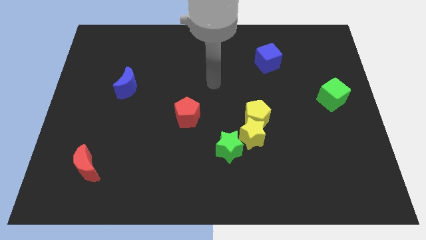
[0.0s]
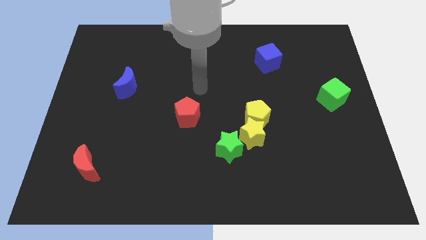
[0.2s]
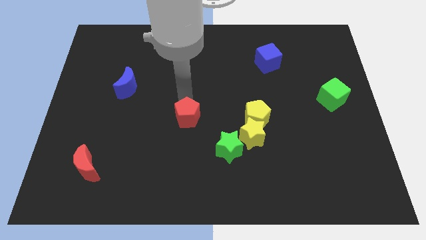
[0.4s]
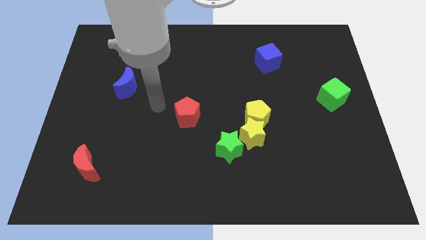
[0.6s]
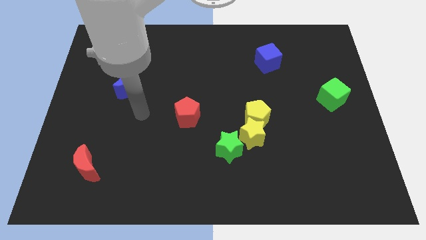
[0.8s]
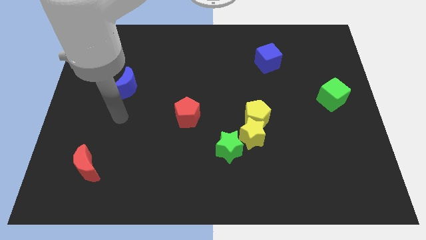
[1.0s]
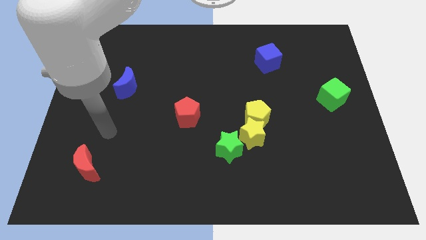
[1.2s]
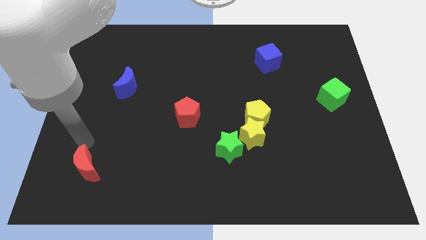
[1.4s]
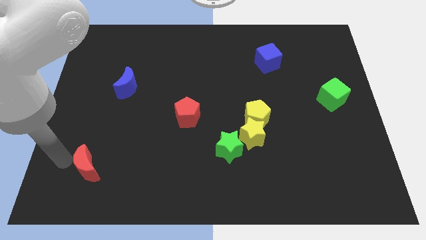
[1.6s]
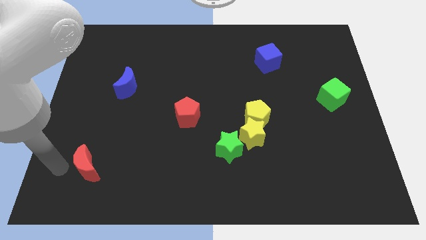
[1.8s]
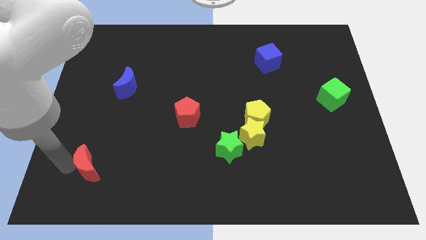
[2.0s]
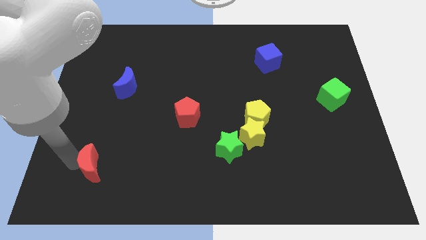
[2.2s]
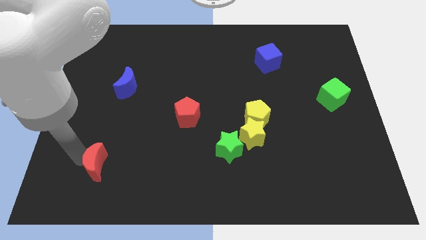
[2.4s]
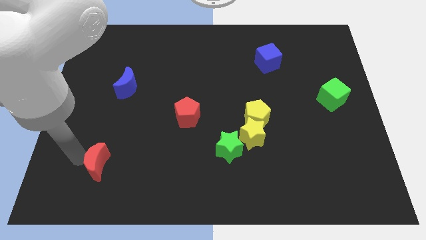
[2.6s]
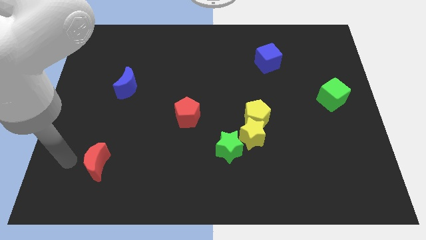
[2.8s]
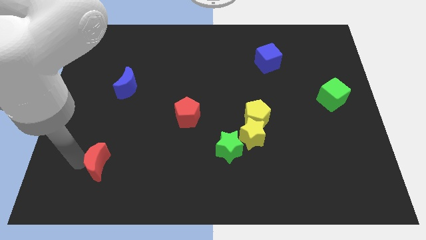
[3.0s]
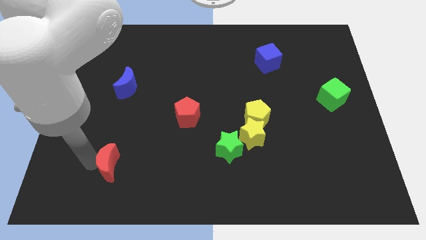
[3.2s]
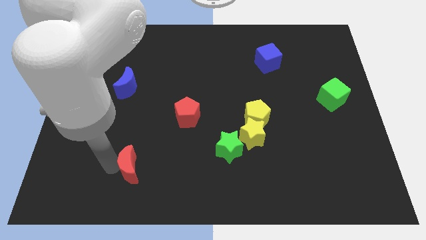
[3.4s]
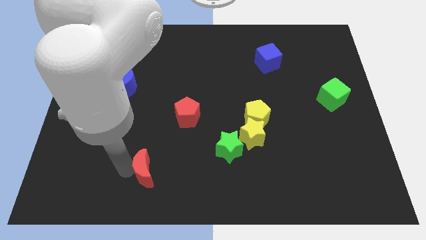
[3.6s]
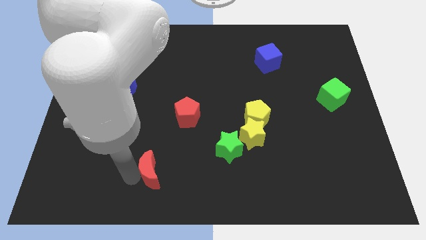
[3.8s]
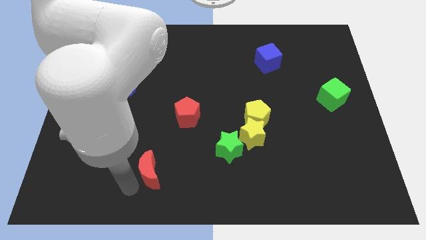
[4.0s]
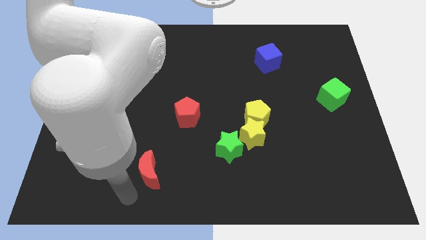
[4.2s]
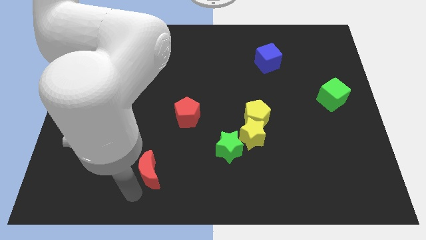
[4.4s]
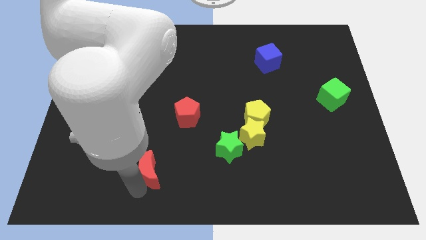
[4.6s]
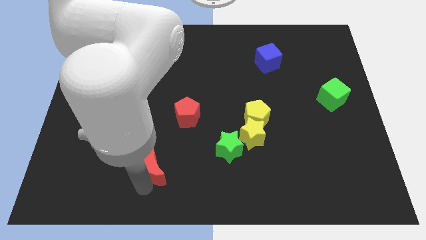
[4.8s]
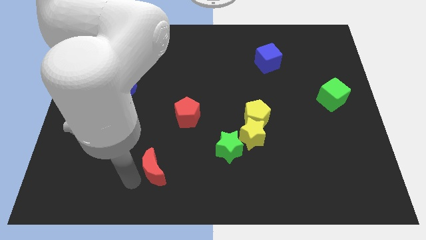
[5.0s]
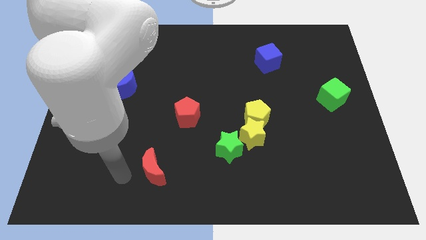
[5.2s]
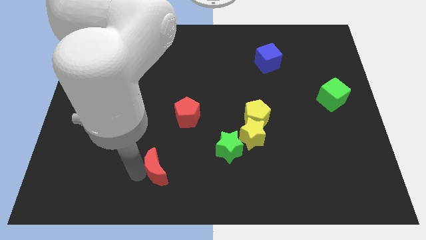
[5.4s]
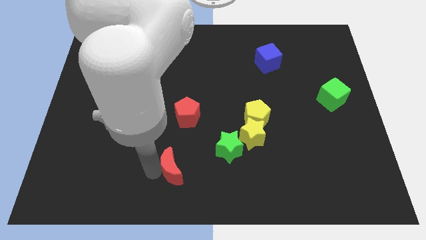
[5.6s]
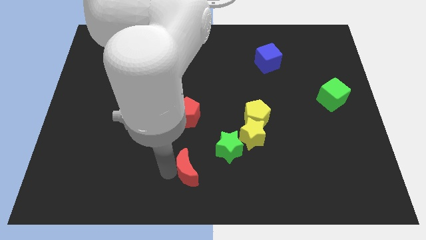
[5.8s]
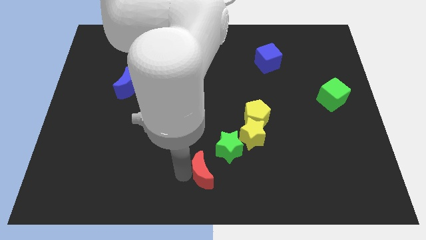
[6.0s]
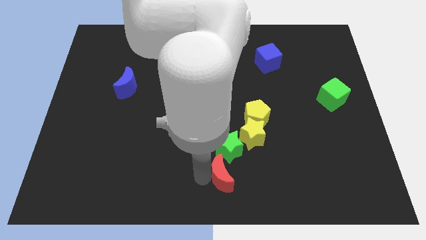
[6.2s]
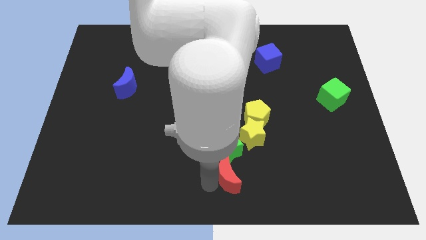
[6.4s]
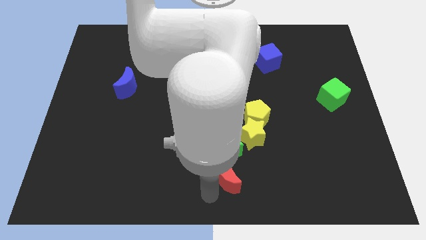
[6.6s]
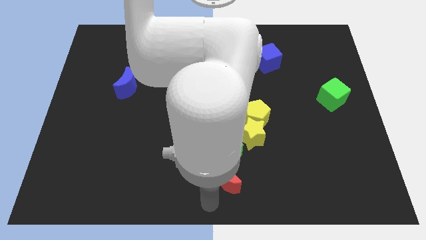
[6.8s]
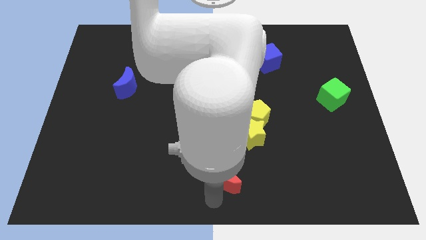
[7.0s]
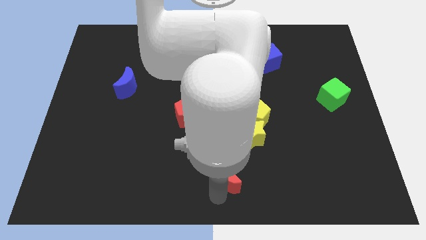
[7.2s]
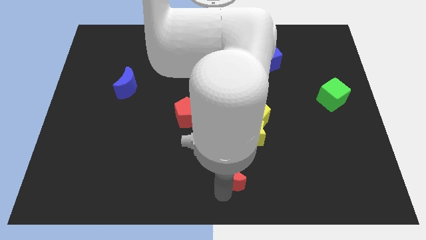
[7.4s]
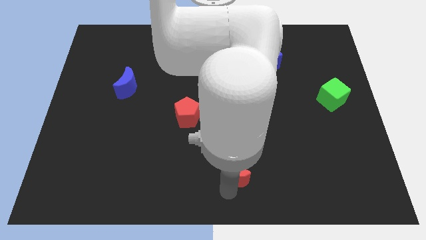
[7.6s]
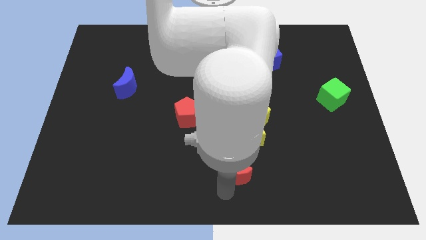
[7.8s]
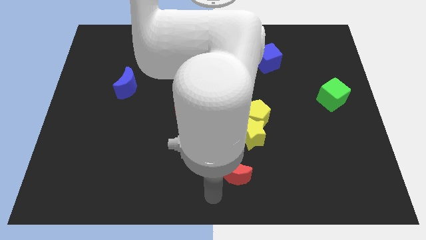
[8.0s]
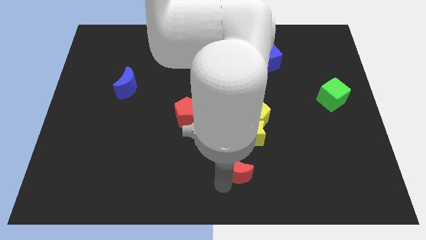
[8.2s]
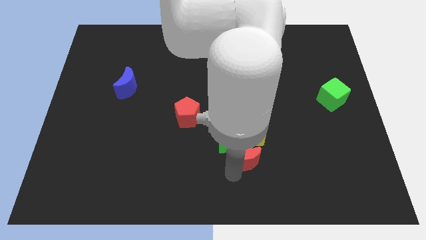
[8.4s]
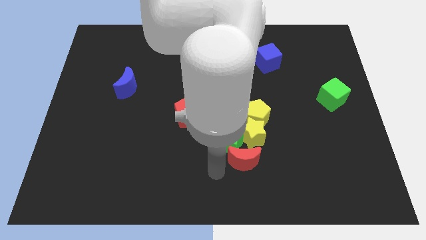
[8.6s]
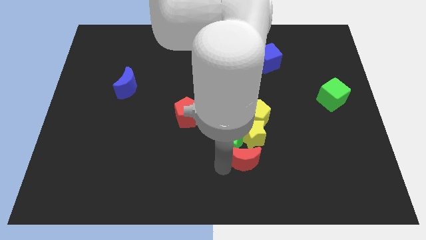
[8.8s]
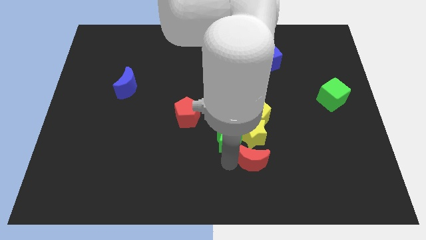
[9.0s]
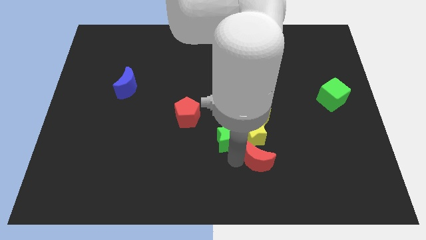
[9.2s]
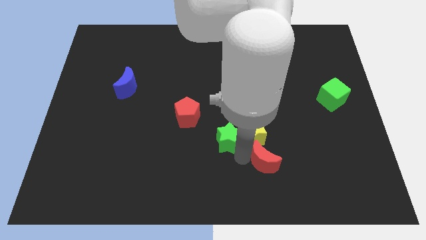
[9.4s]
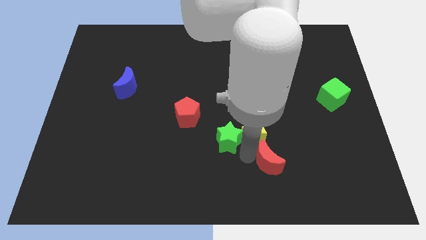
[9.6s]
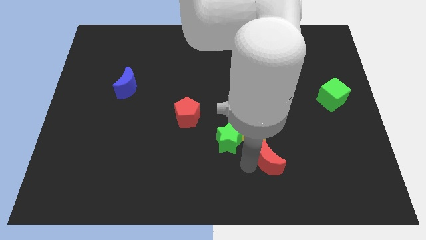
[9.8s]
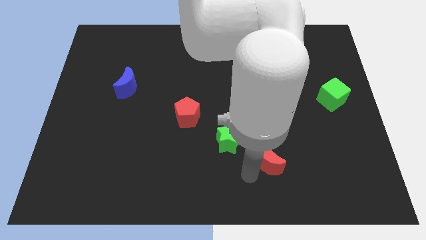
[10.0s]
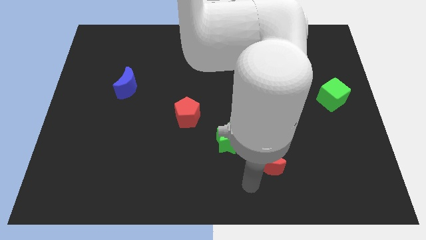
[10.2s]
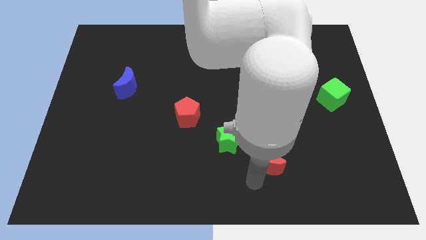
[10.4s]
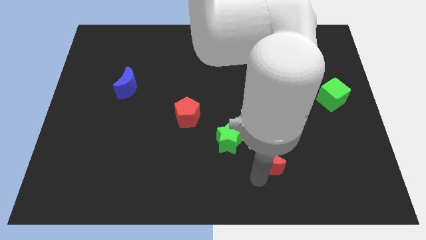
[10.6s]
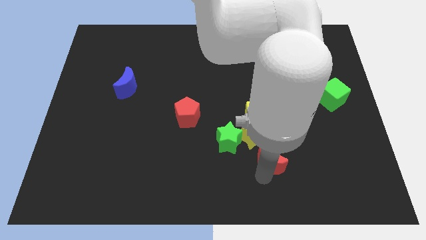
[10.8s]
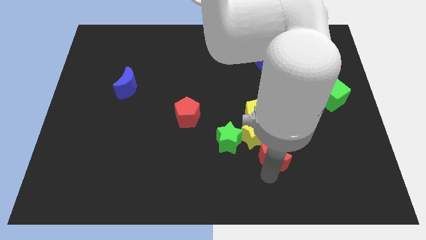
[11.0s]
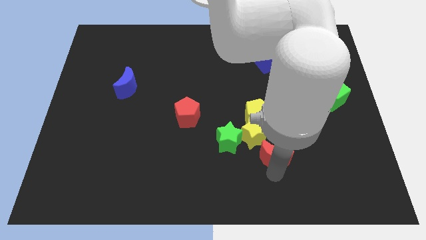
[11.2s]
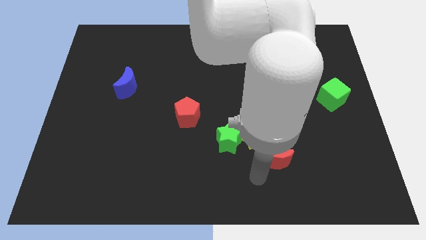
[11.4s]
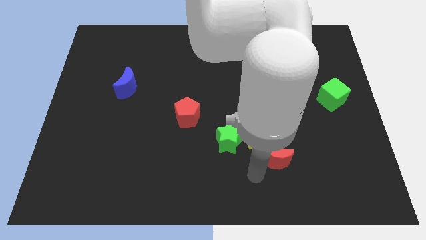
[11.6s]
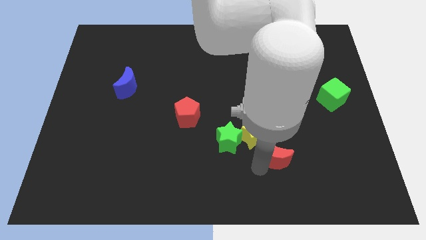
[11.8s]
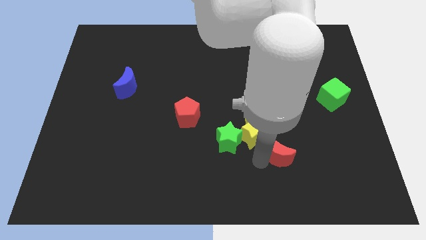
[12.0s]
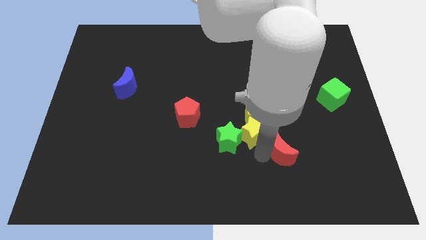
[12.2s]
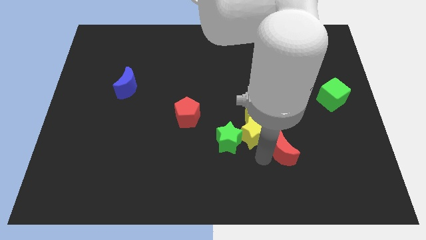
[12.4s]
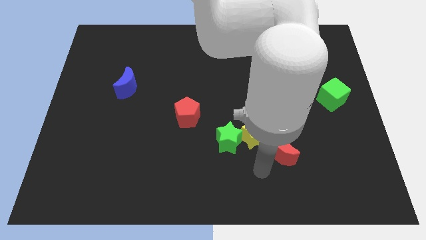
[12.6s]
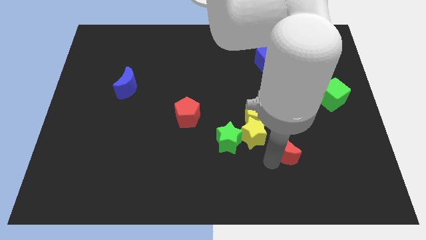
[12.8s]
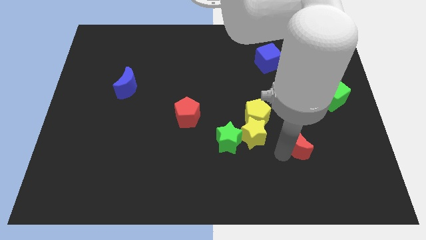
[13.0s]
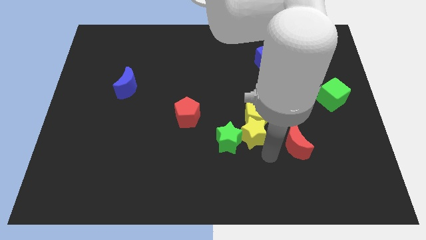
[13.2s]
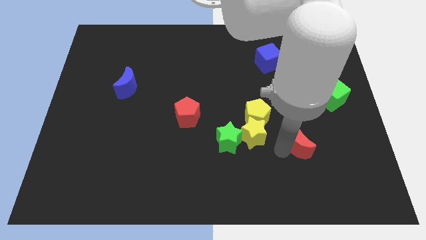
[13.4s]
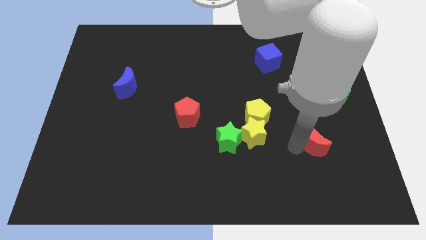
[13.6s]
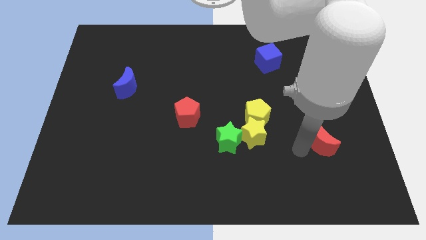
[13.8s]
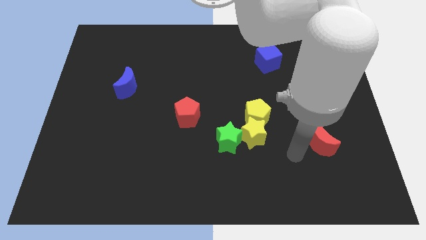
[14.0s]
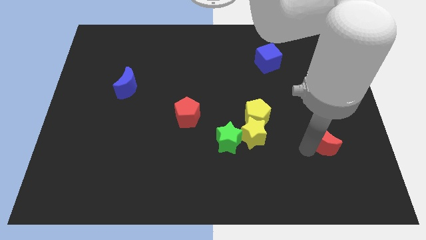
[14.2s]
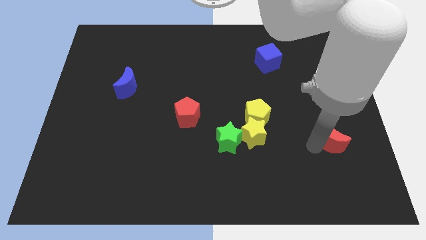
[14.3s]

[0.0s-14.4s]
push the red moon to the bottom side of the green cube

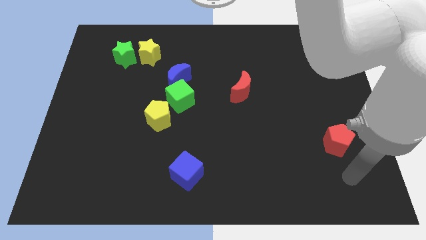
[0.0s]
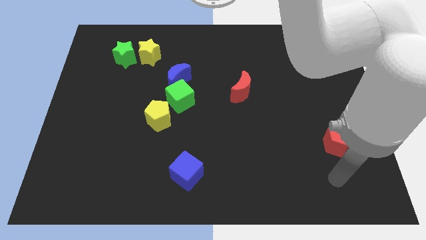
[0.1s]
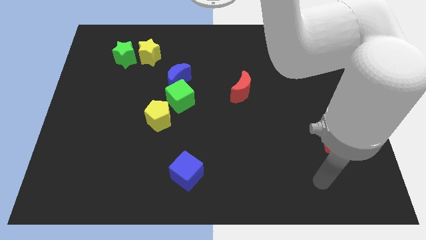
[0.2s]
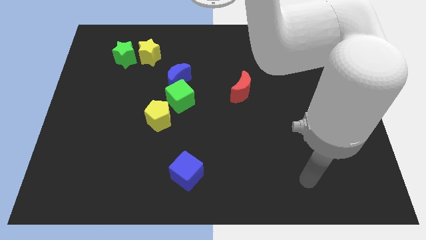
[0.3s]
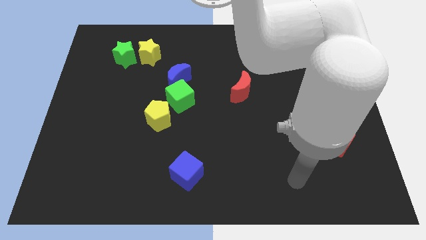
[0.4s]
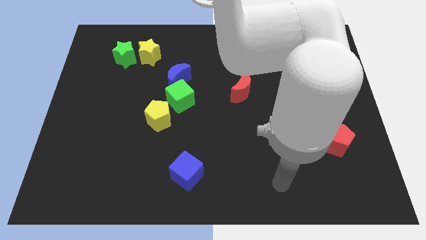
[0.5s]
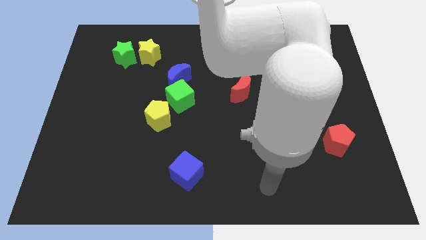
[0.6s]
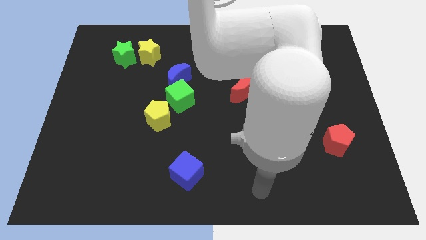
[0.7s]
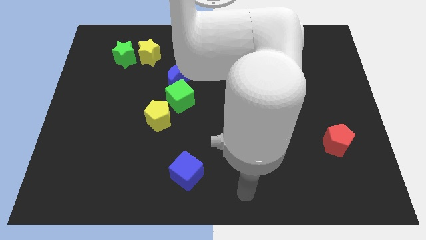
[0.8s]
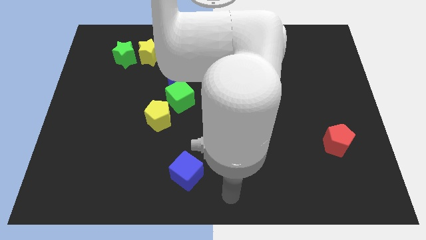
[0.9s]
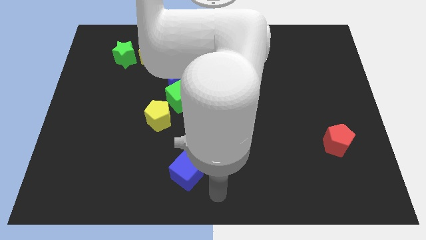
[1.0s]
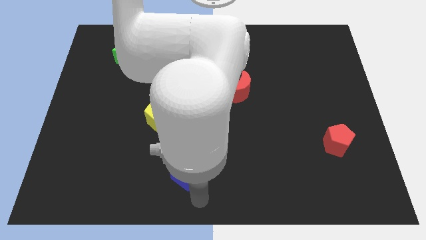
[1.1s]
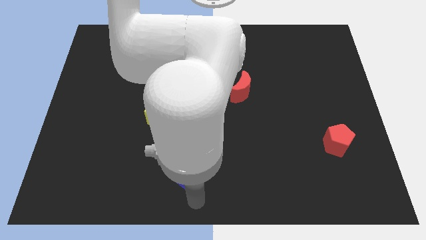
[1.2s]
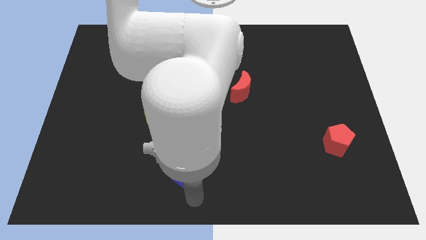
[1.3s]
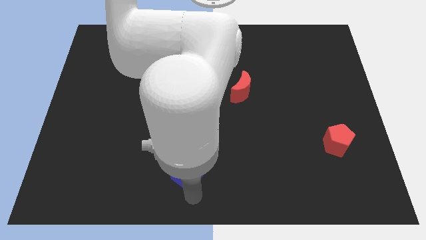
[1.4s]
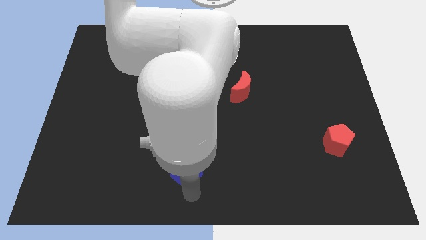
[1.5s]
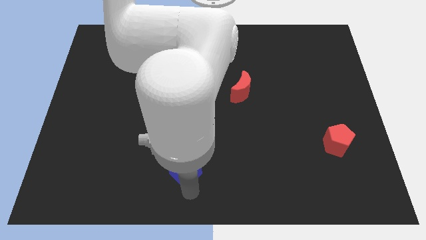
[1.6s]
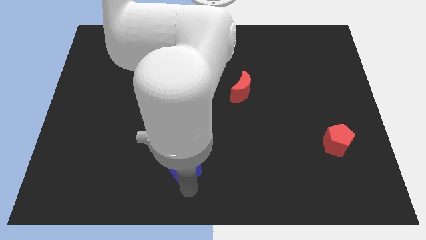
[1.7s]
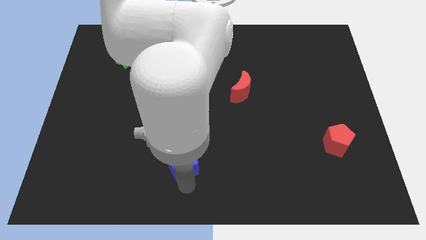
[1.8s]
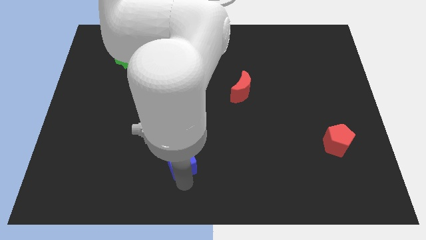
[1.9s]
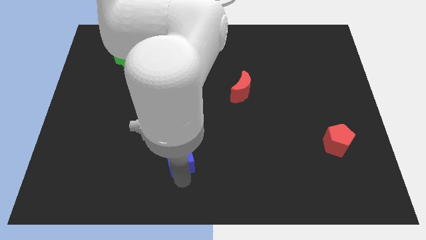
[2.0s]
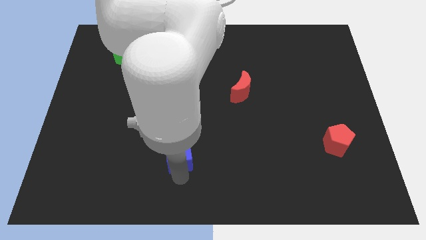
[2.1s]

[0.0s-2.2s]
push the blue cube diagonally down and to the right of the yellow pentagon
